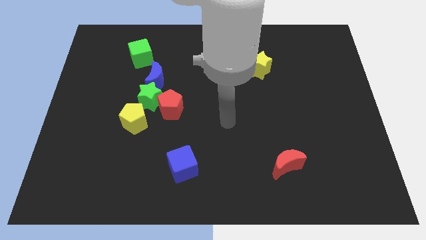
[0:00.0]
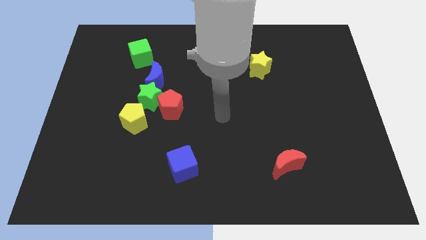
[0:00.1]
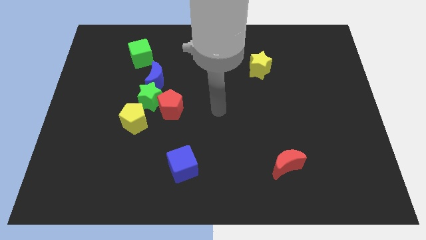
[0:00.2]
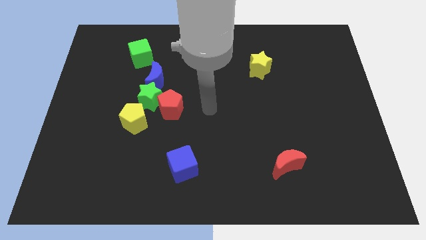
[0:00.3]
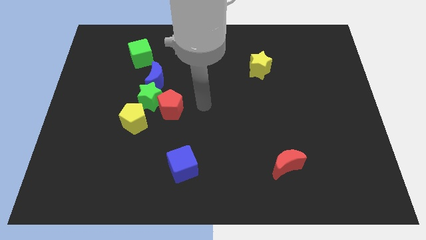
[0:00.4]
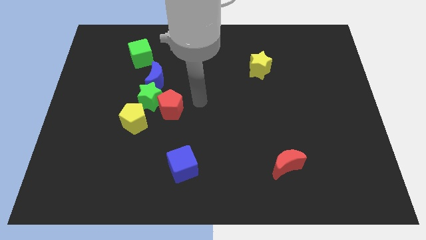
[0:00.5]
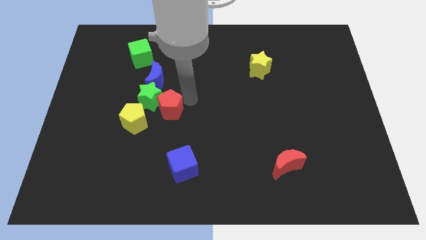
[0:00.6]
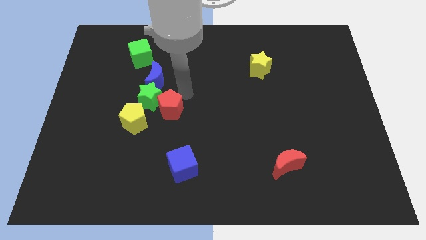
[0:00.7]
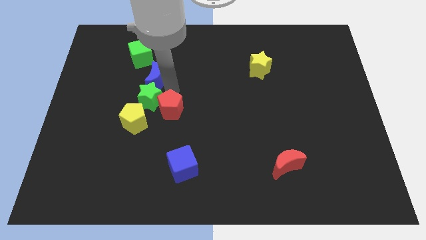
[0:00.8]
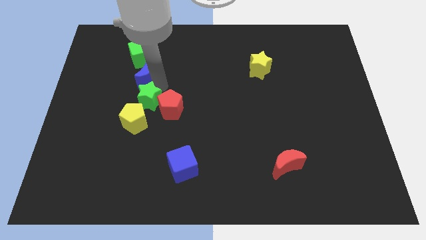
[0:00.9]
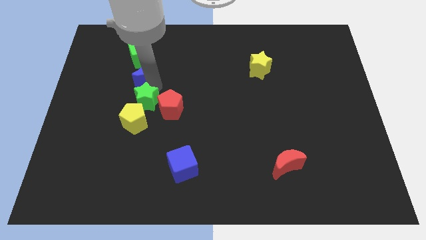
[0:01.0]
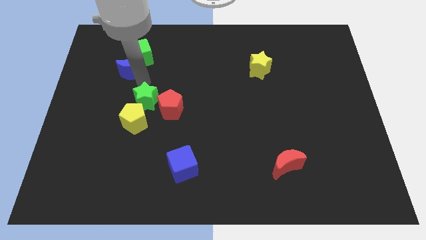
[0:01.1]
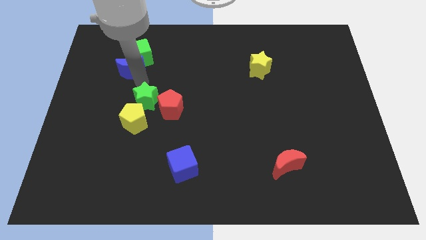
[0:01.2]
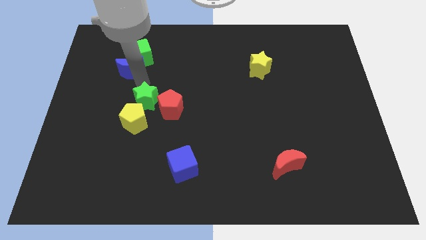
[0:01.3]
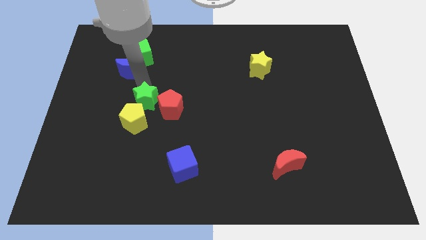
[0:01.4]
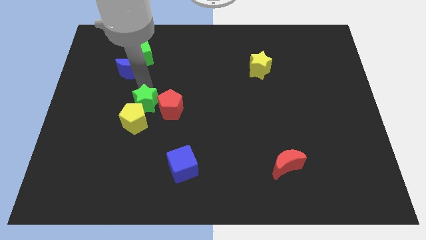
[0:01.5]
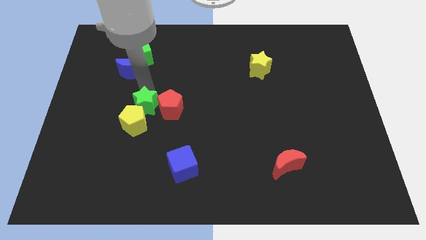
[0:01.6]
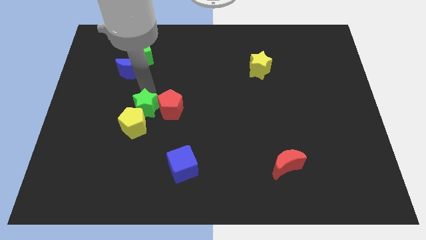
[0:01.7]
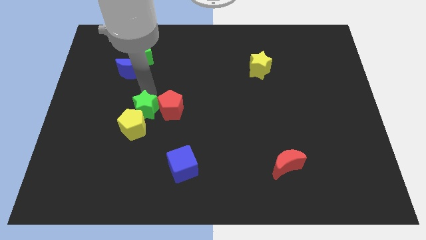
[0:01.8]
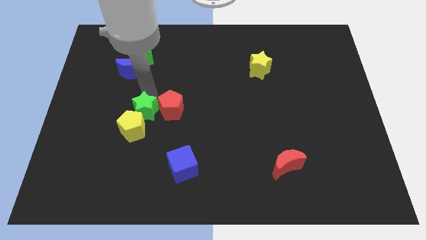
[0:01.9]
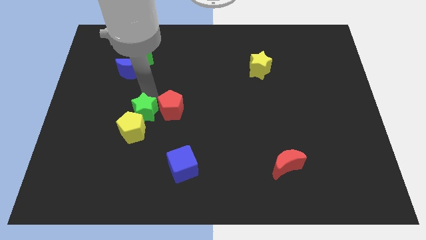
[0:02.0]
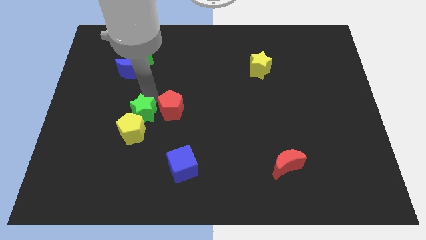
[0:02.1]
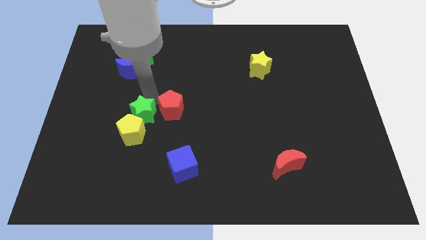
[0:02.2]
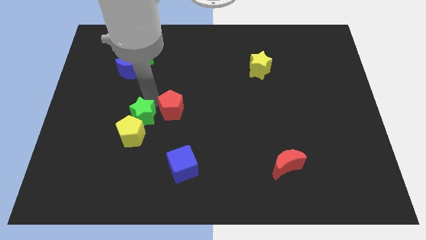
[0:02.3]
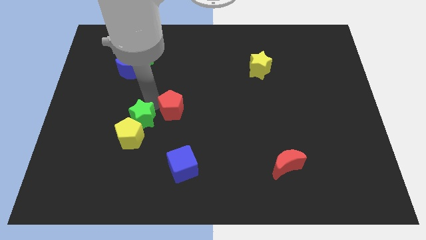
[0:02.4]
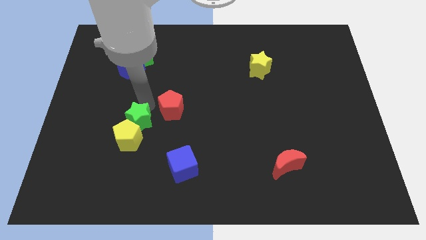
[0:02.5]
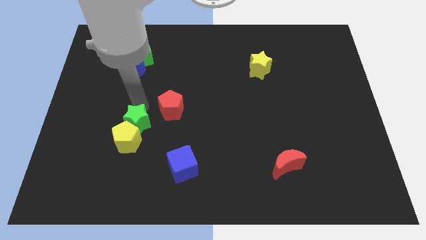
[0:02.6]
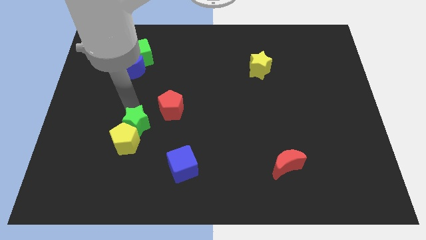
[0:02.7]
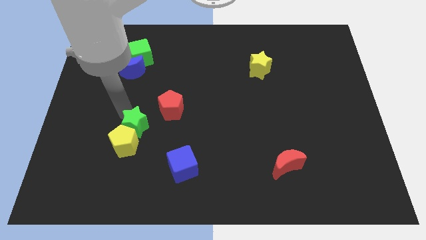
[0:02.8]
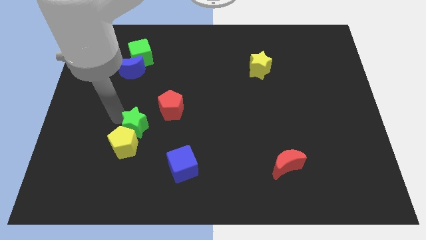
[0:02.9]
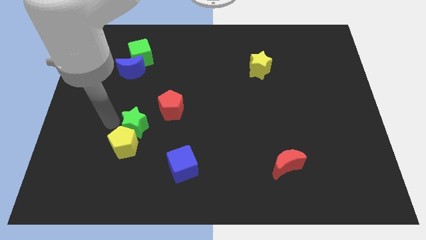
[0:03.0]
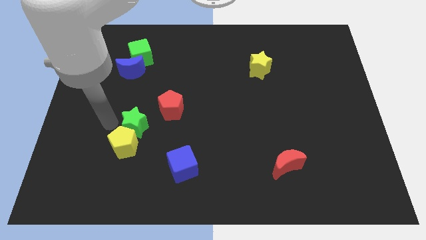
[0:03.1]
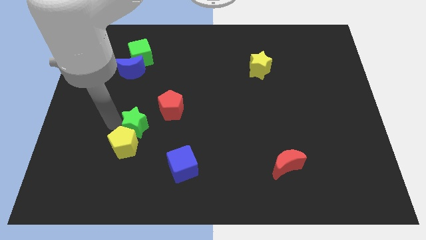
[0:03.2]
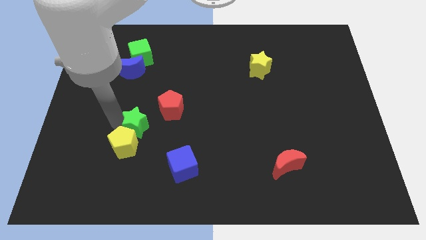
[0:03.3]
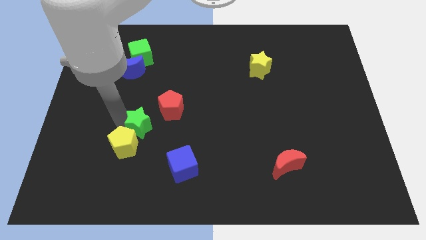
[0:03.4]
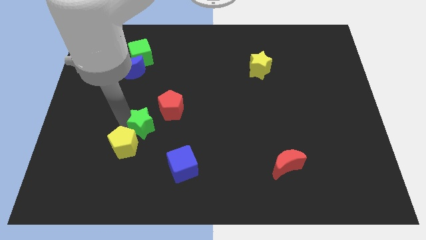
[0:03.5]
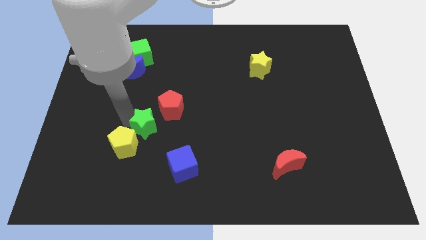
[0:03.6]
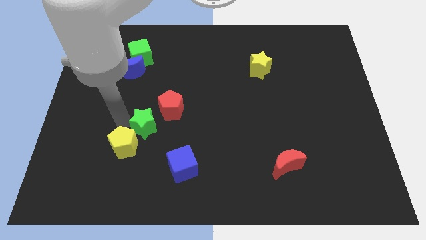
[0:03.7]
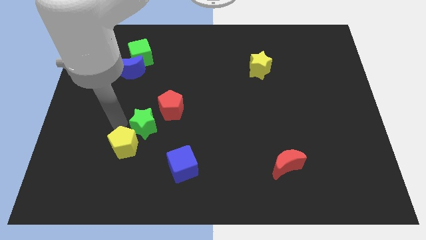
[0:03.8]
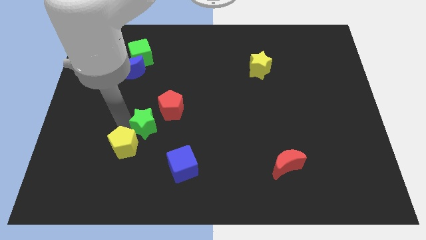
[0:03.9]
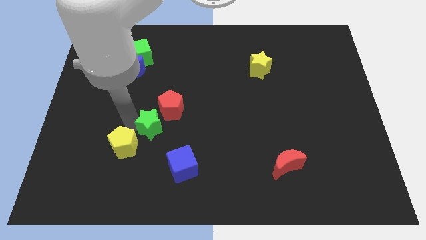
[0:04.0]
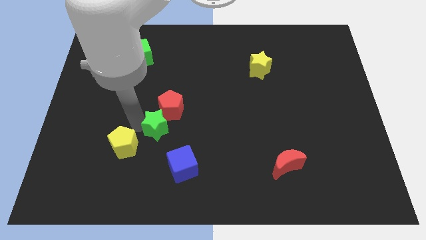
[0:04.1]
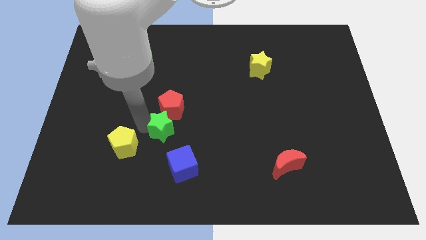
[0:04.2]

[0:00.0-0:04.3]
slide the green star a bit down and right

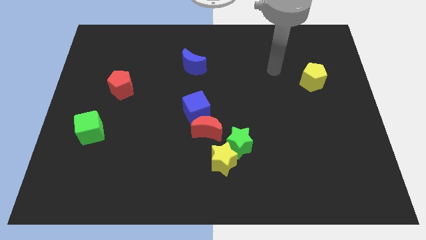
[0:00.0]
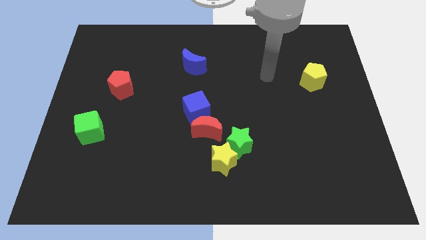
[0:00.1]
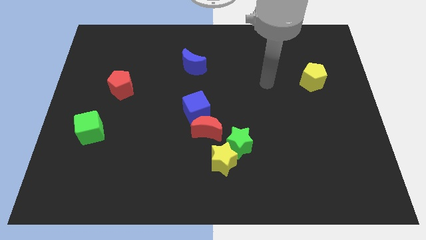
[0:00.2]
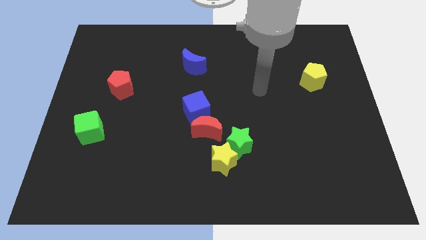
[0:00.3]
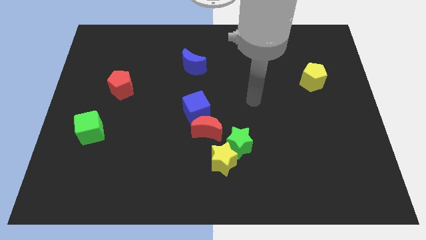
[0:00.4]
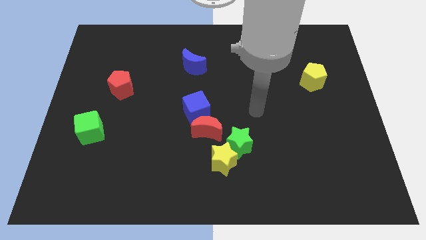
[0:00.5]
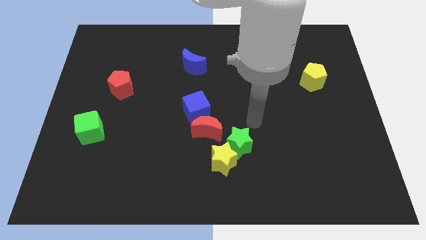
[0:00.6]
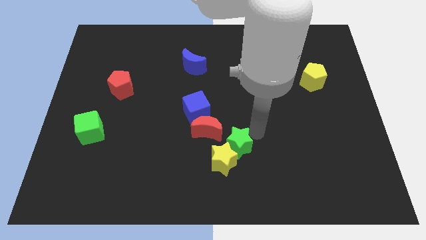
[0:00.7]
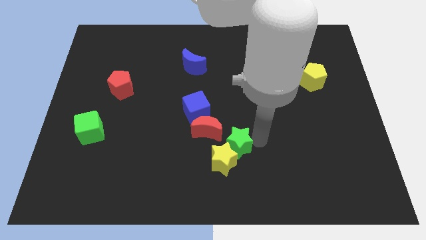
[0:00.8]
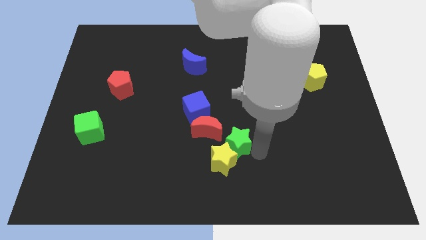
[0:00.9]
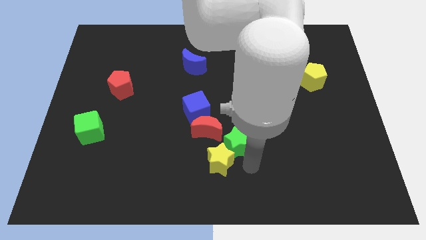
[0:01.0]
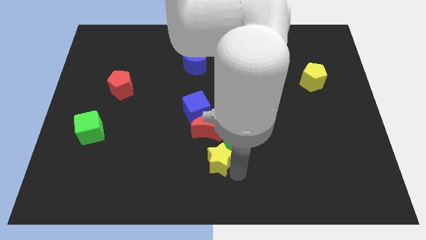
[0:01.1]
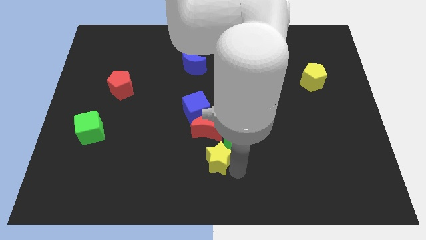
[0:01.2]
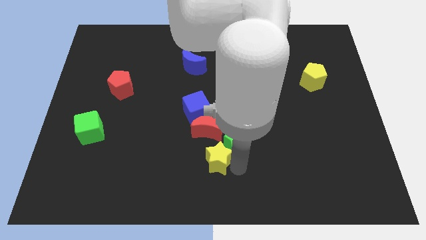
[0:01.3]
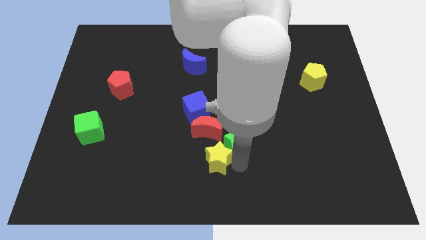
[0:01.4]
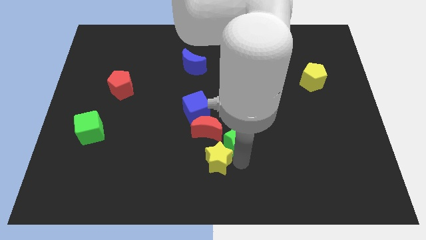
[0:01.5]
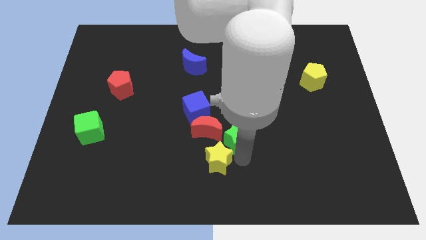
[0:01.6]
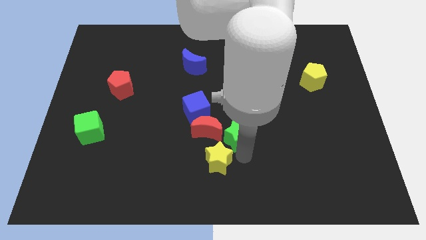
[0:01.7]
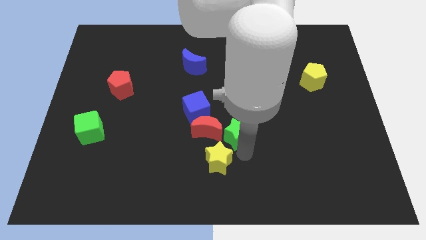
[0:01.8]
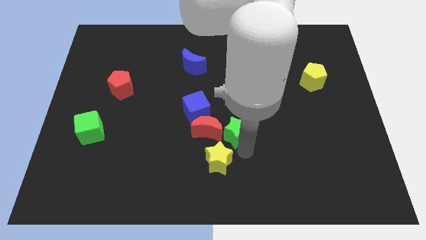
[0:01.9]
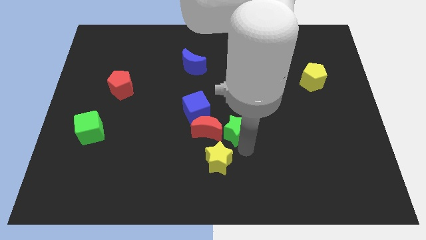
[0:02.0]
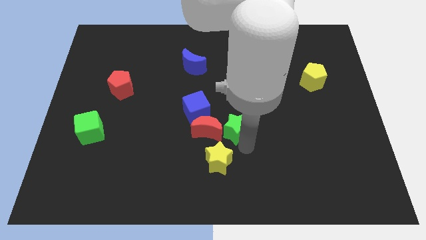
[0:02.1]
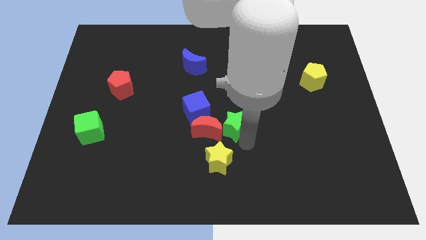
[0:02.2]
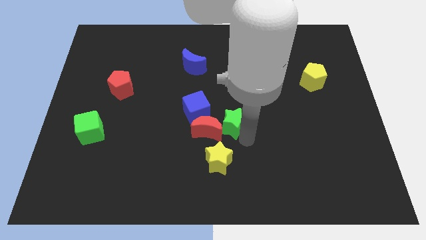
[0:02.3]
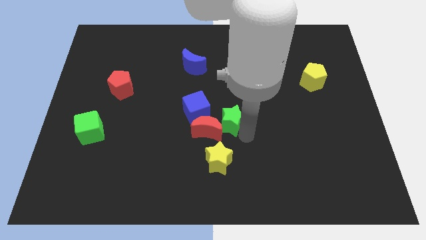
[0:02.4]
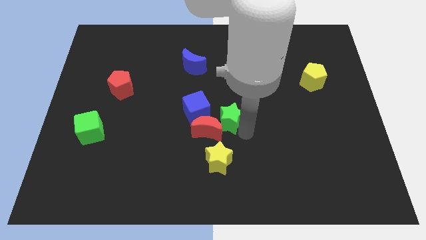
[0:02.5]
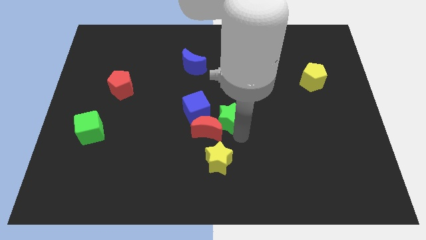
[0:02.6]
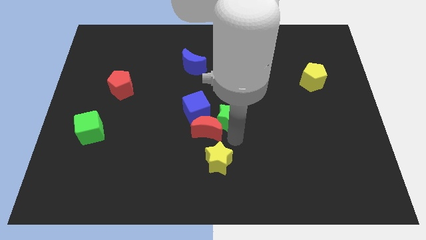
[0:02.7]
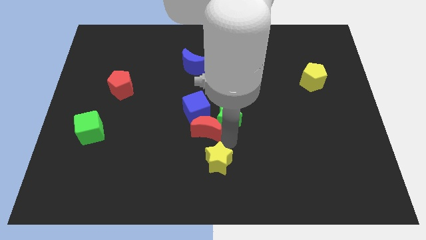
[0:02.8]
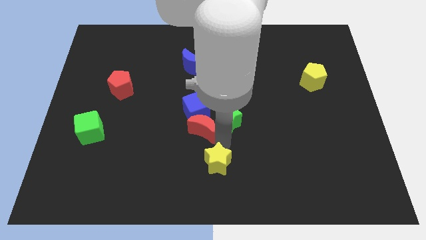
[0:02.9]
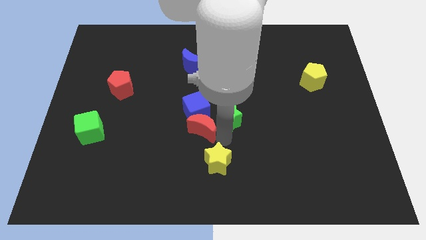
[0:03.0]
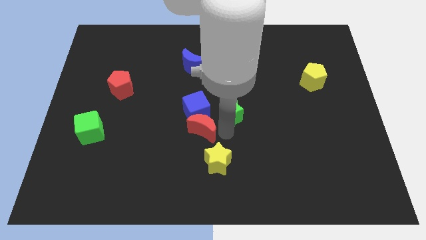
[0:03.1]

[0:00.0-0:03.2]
slightly push the green star up

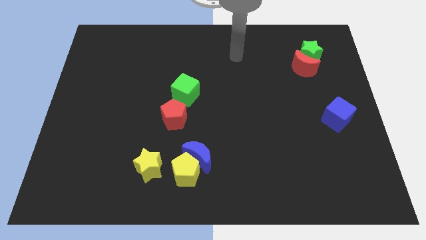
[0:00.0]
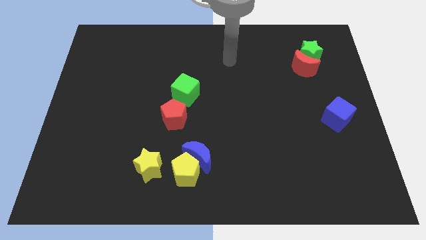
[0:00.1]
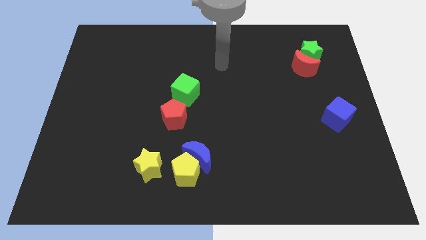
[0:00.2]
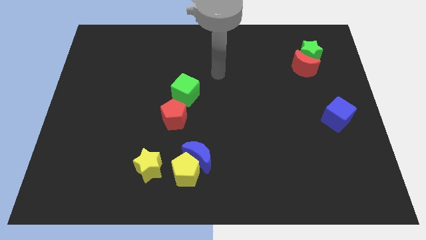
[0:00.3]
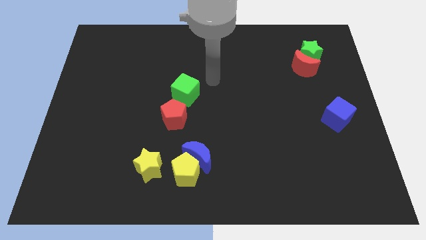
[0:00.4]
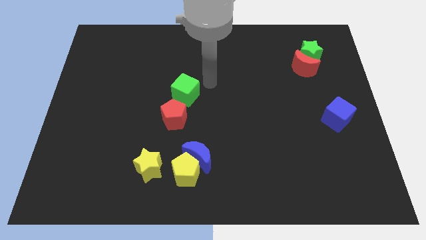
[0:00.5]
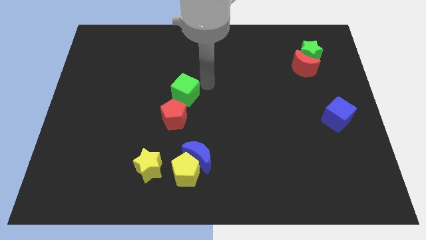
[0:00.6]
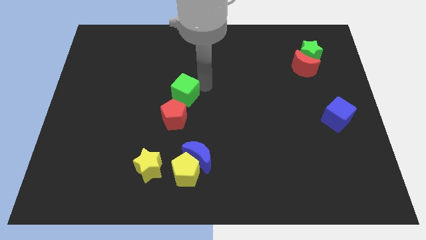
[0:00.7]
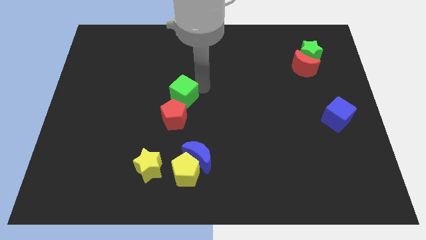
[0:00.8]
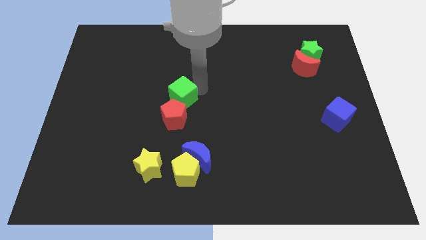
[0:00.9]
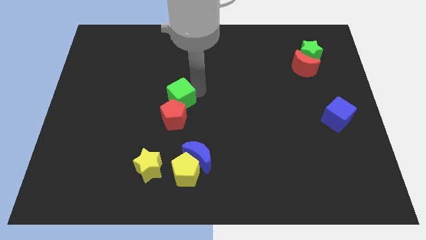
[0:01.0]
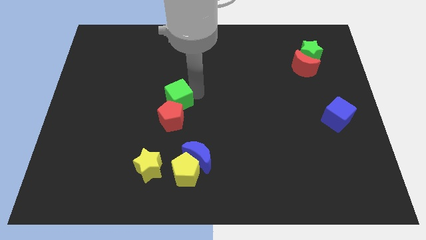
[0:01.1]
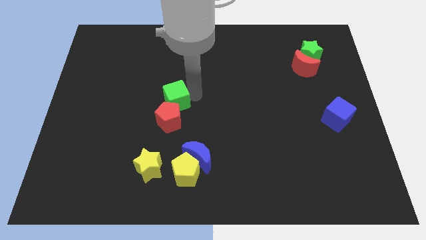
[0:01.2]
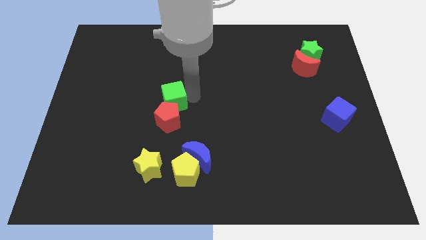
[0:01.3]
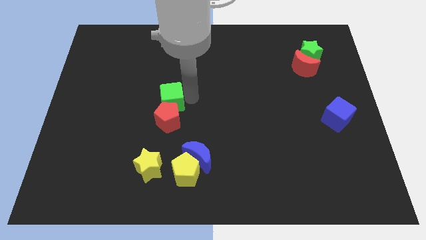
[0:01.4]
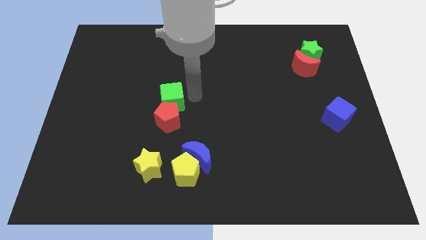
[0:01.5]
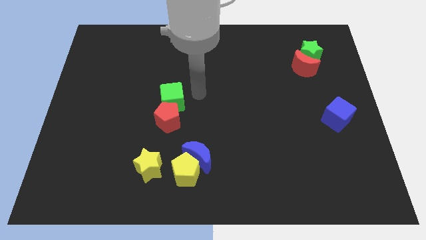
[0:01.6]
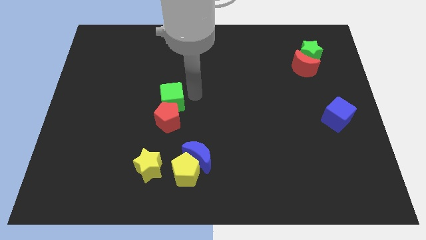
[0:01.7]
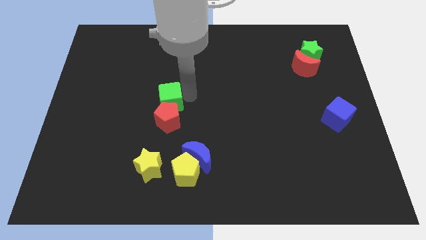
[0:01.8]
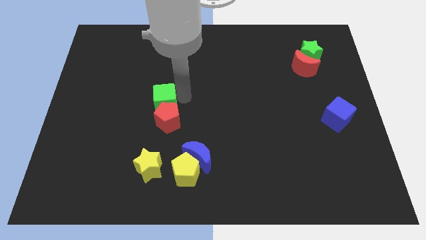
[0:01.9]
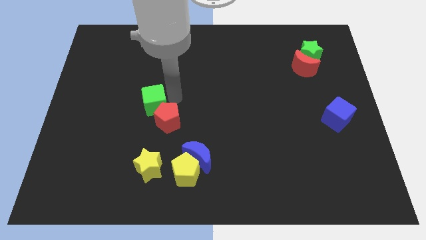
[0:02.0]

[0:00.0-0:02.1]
slide the green cube down and then left a little
